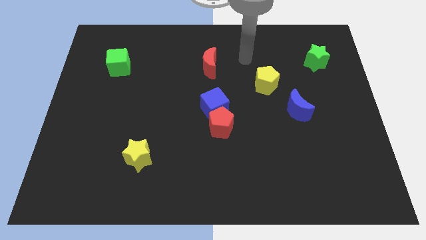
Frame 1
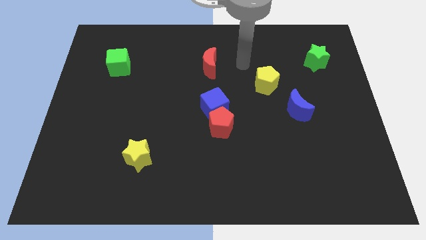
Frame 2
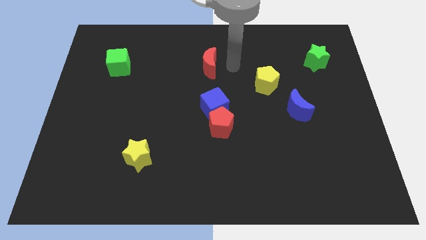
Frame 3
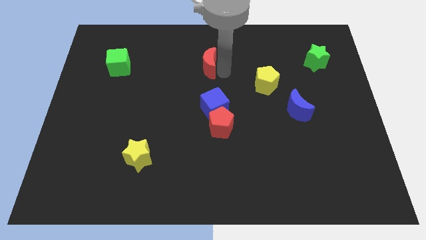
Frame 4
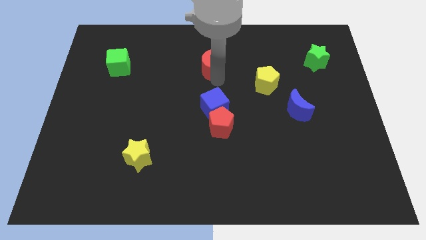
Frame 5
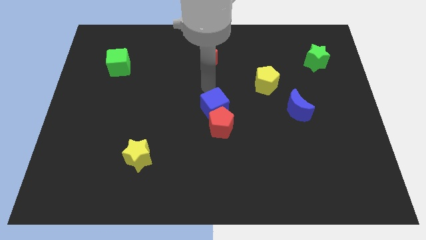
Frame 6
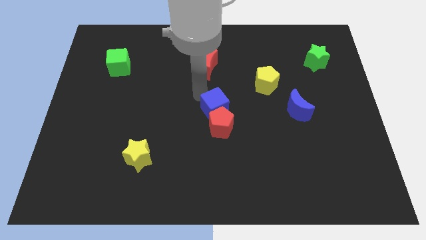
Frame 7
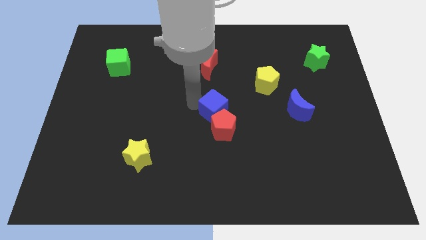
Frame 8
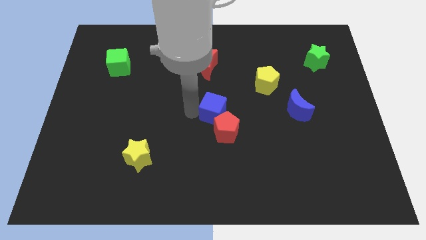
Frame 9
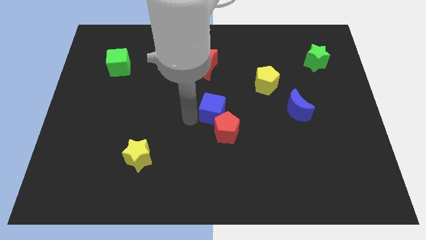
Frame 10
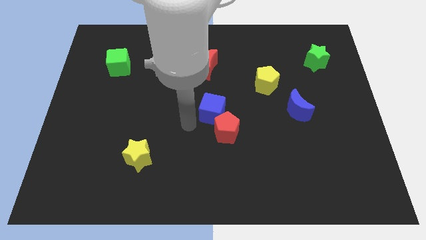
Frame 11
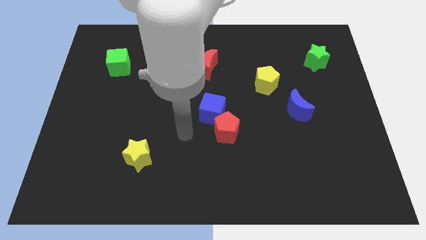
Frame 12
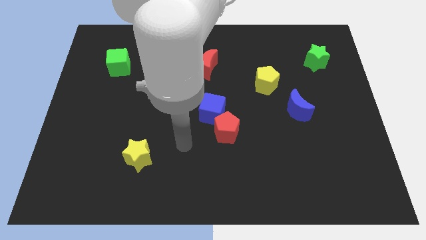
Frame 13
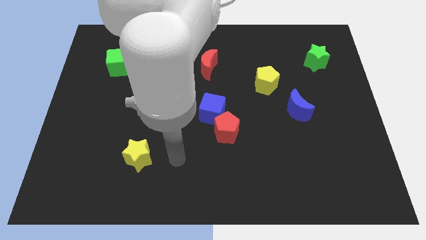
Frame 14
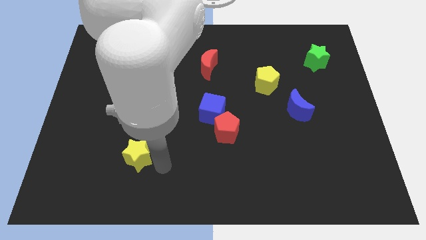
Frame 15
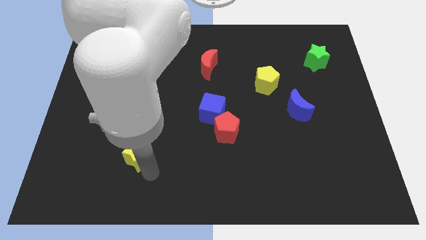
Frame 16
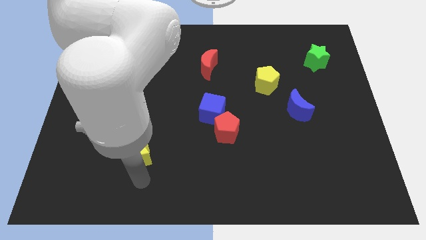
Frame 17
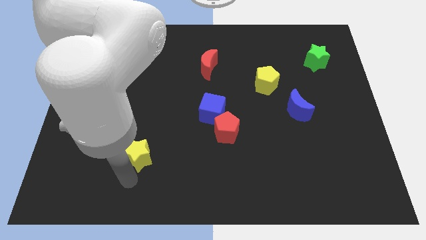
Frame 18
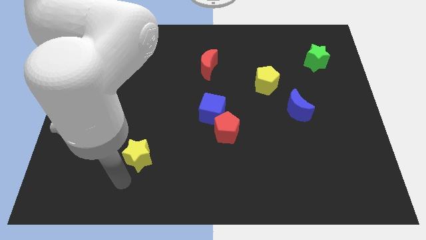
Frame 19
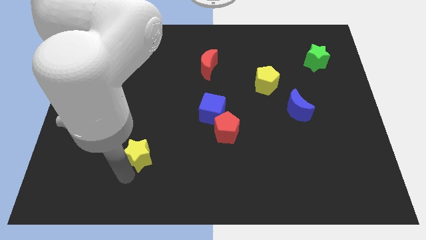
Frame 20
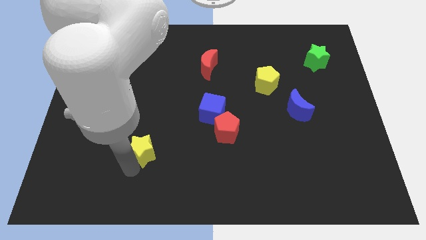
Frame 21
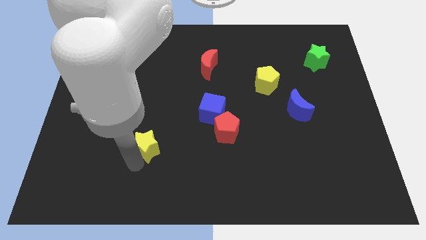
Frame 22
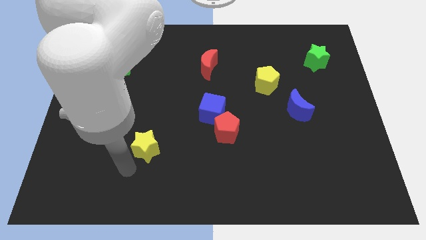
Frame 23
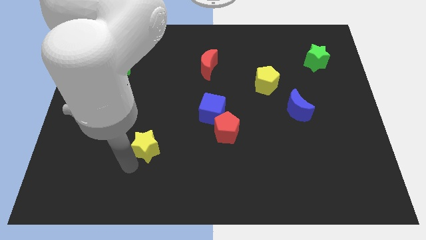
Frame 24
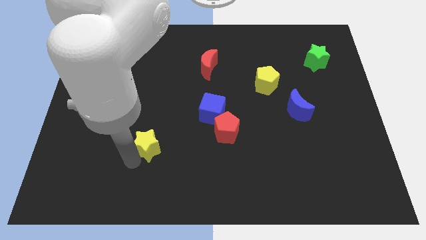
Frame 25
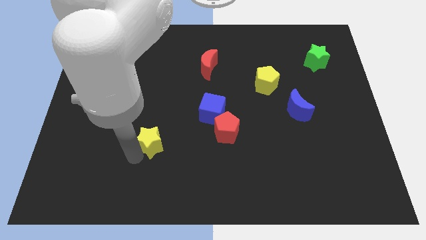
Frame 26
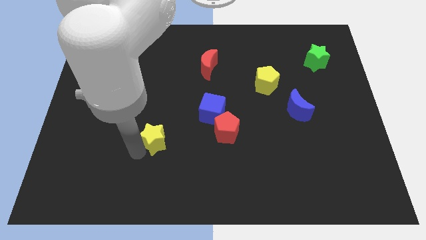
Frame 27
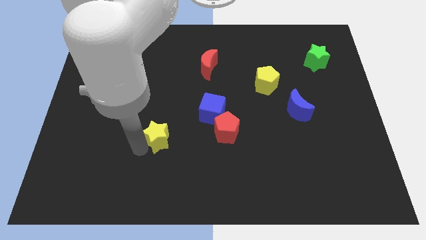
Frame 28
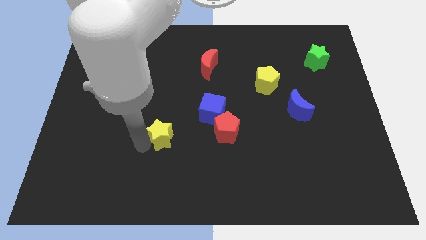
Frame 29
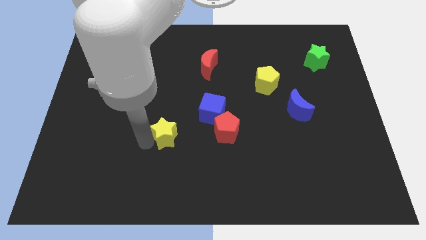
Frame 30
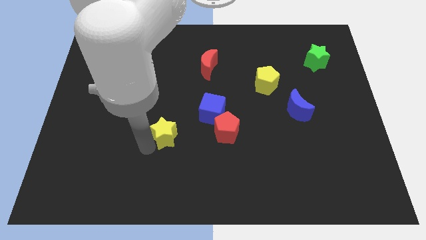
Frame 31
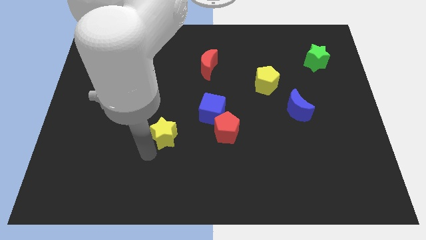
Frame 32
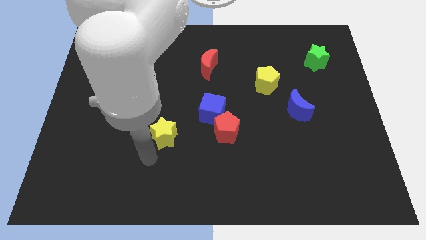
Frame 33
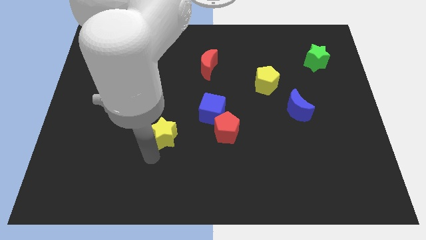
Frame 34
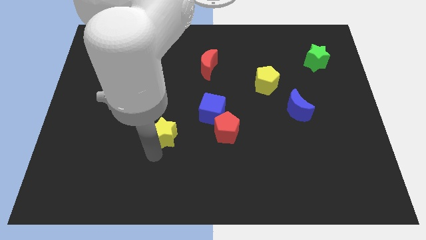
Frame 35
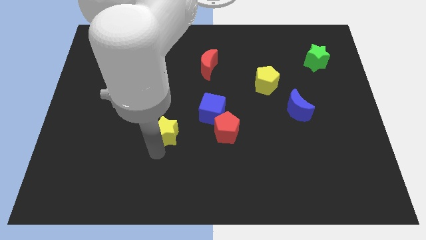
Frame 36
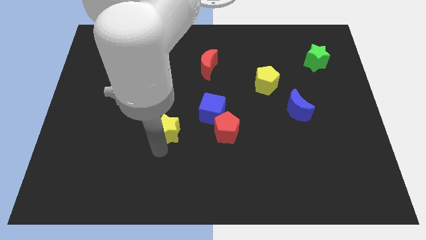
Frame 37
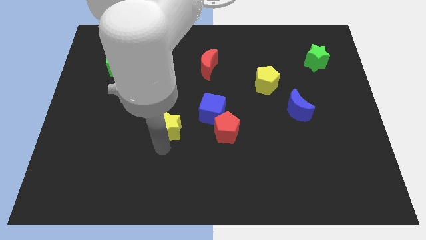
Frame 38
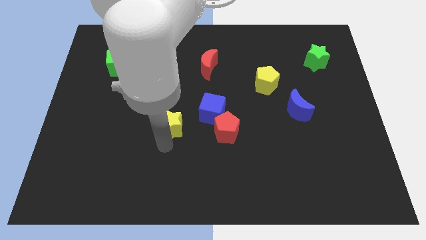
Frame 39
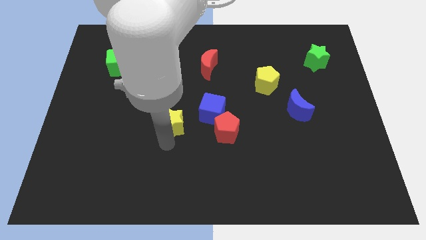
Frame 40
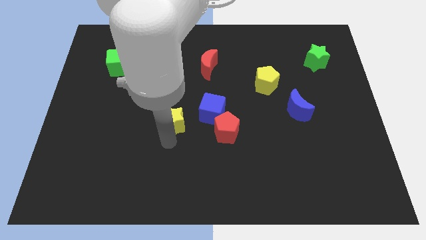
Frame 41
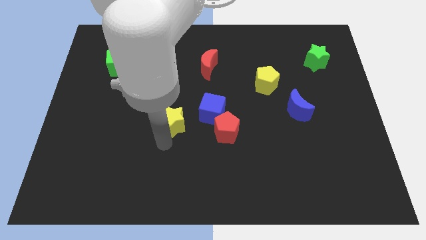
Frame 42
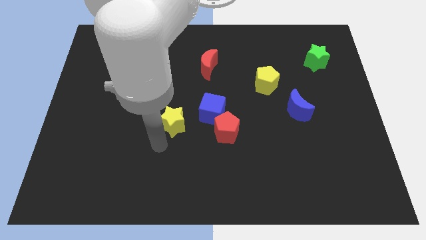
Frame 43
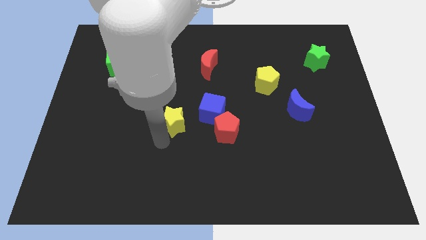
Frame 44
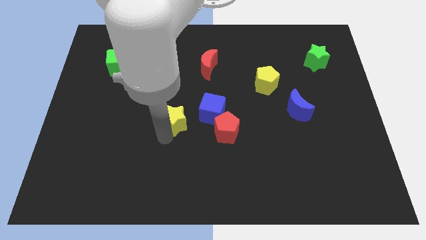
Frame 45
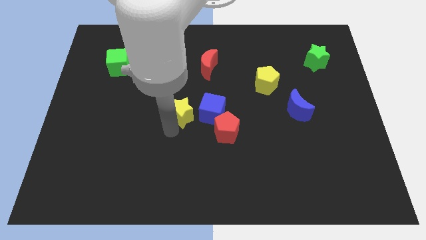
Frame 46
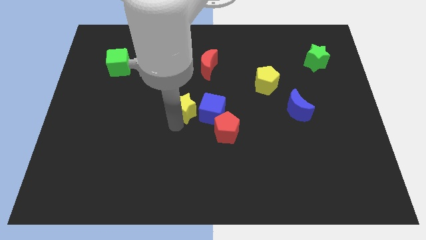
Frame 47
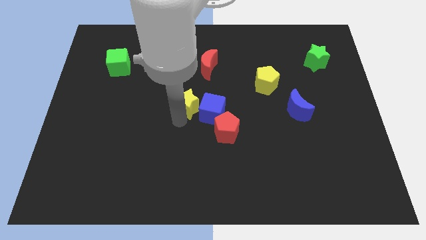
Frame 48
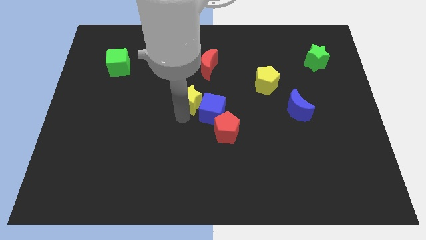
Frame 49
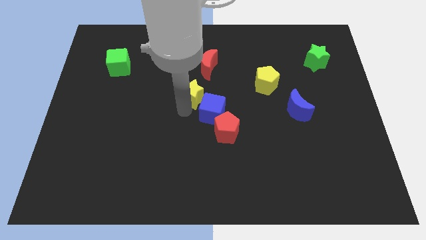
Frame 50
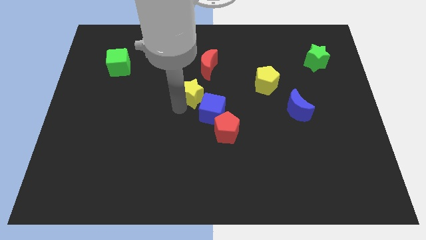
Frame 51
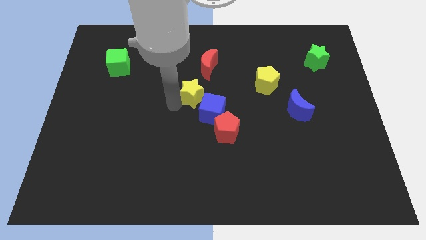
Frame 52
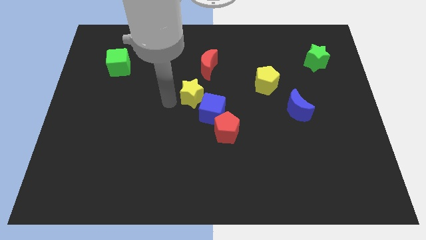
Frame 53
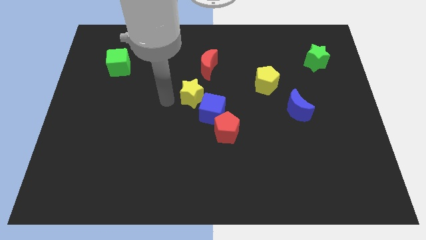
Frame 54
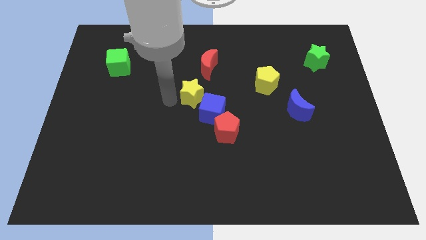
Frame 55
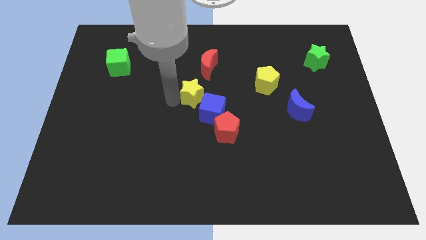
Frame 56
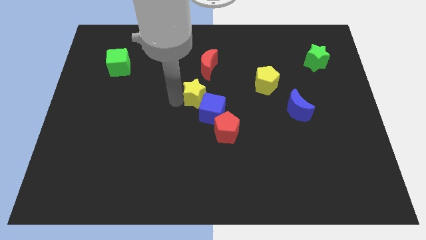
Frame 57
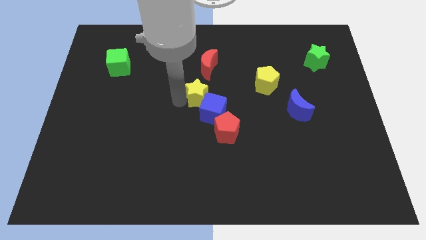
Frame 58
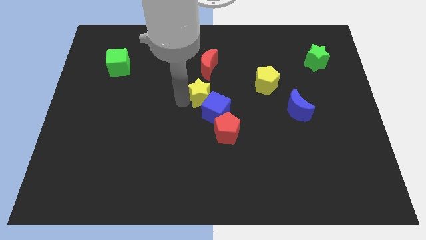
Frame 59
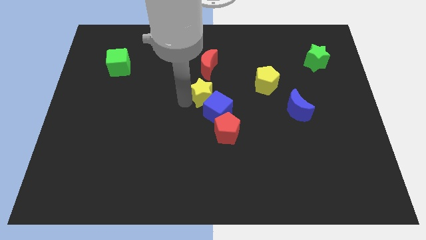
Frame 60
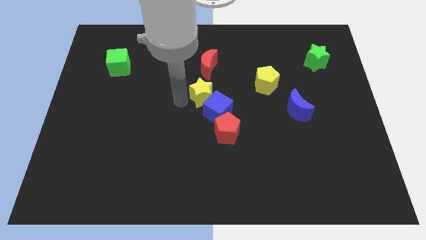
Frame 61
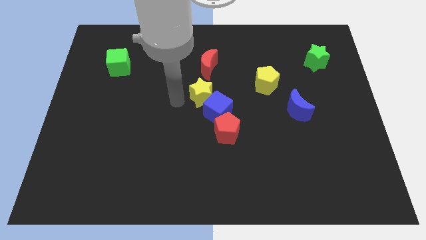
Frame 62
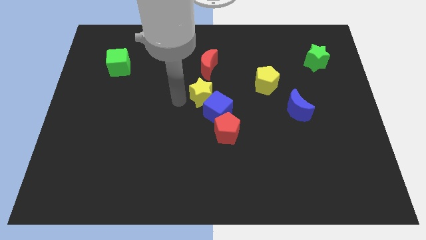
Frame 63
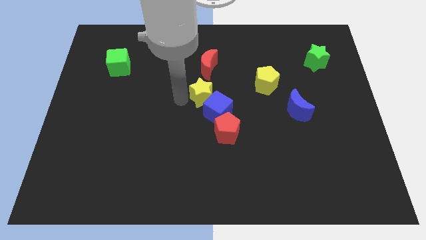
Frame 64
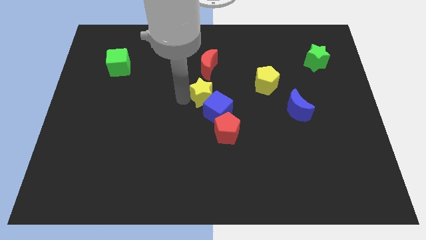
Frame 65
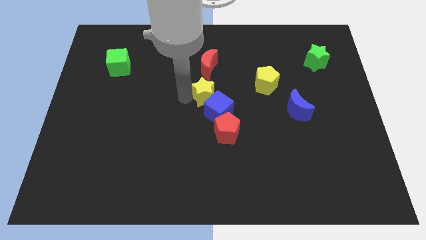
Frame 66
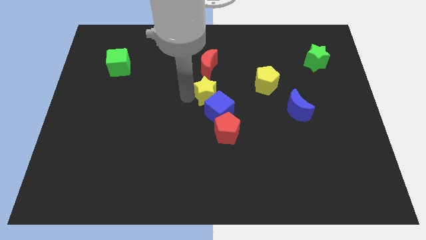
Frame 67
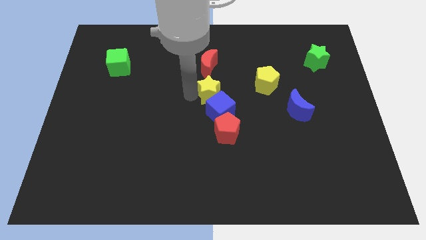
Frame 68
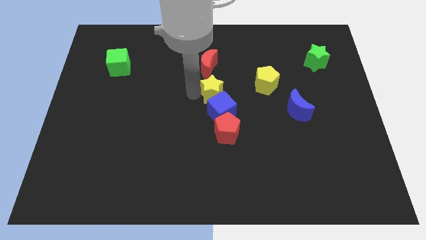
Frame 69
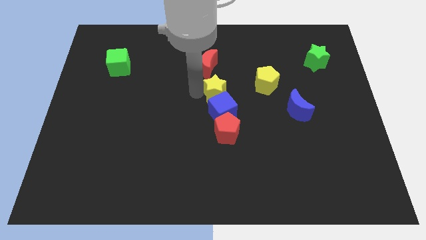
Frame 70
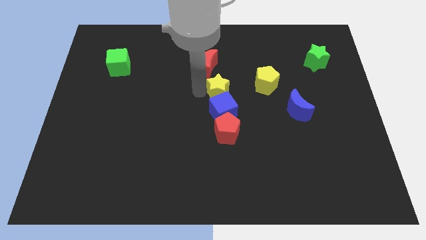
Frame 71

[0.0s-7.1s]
move the yellow star to the top right of the blue cube
